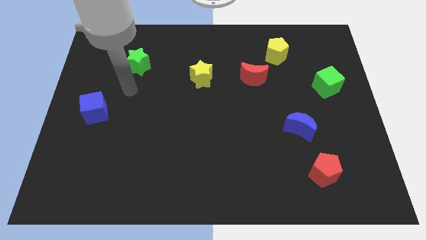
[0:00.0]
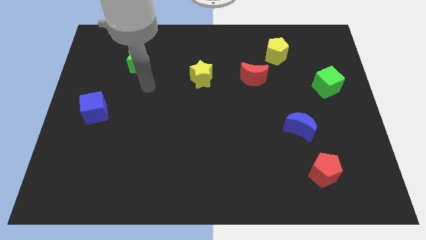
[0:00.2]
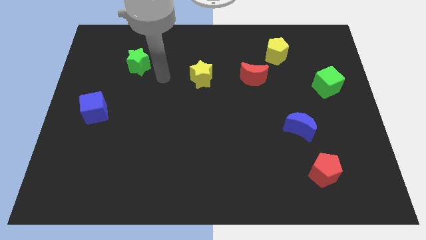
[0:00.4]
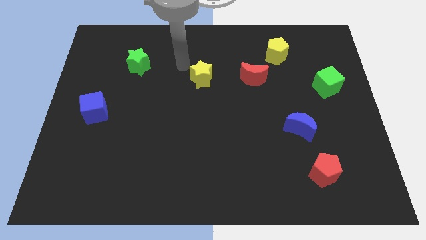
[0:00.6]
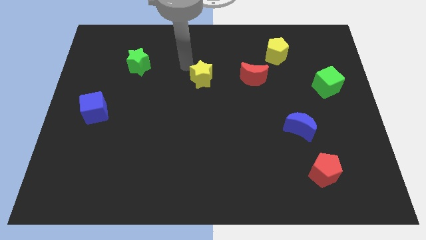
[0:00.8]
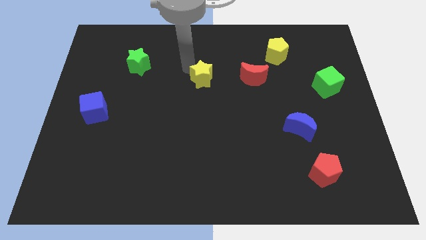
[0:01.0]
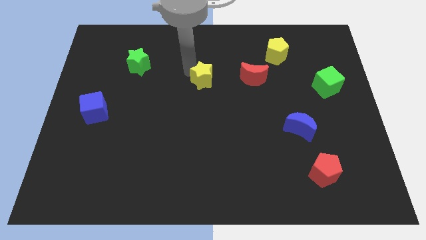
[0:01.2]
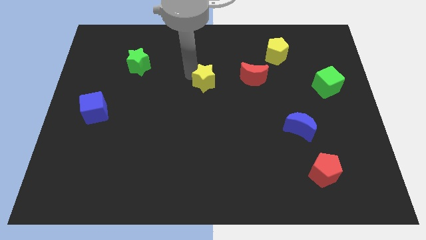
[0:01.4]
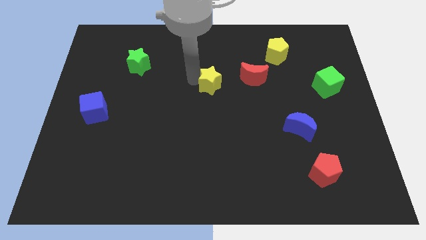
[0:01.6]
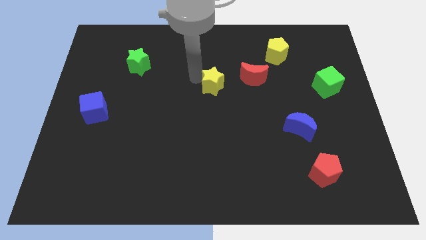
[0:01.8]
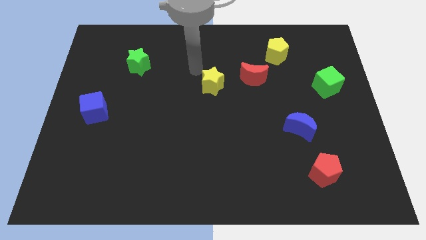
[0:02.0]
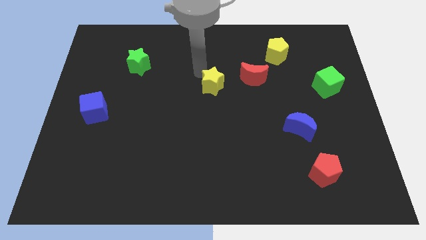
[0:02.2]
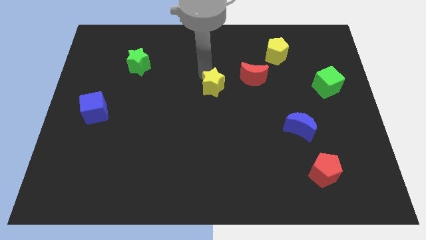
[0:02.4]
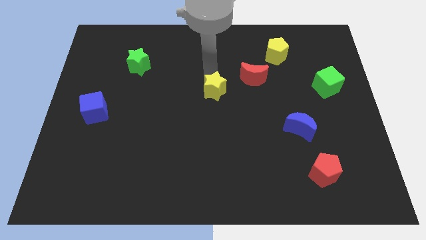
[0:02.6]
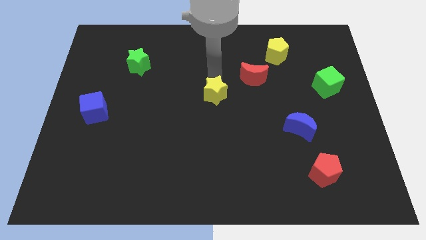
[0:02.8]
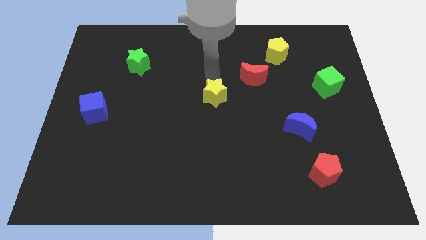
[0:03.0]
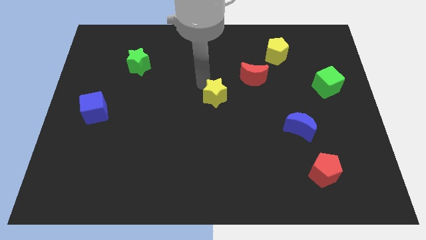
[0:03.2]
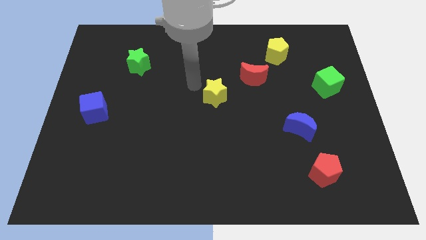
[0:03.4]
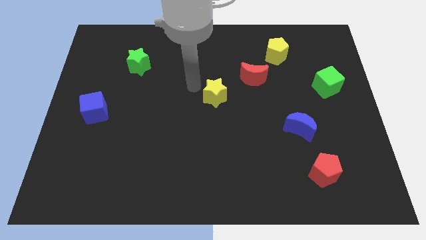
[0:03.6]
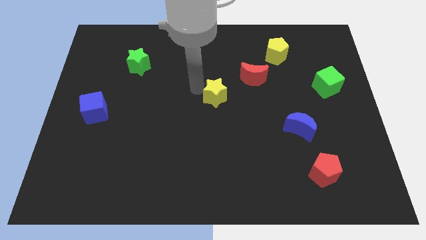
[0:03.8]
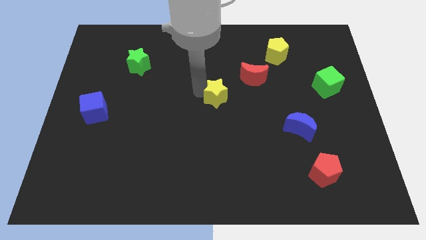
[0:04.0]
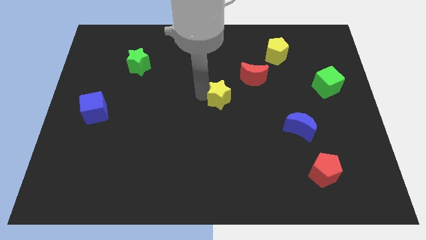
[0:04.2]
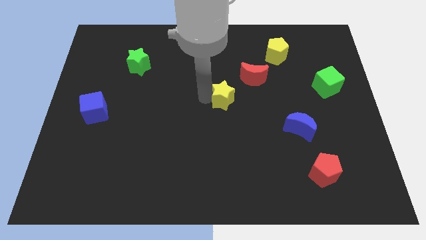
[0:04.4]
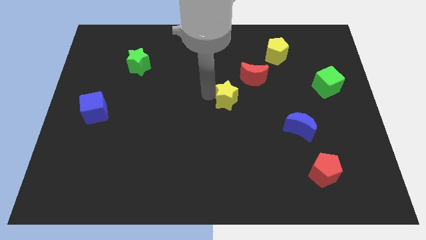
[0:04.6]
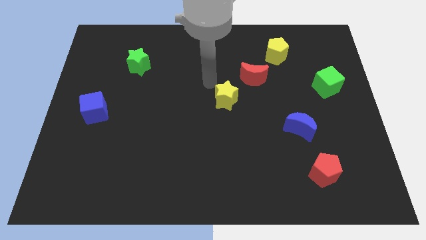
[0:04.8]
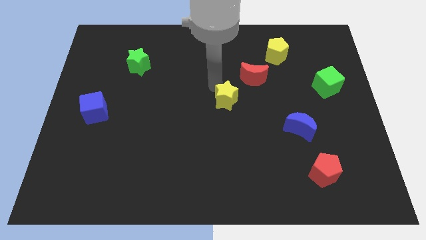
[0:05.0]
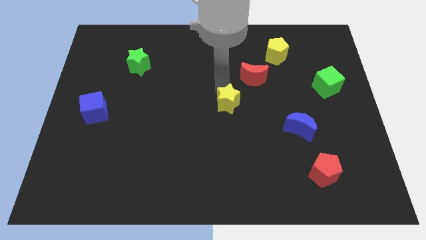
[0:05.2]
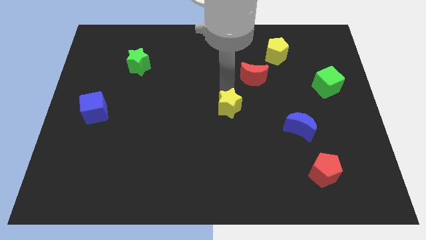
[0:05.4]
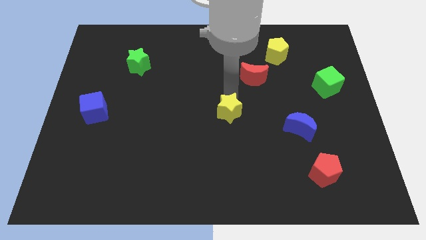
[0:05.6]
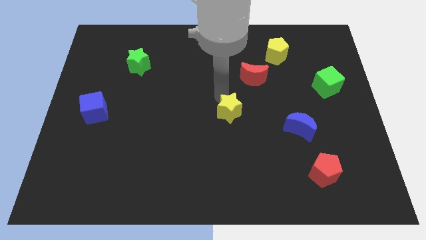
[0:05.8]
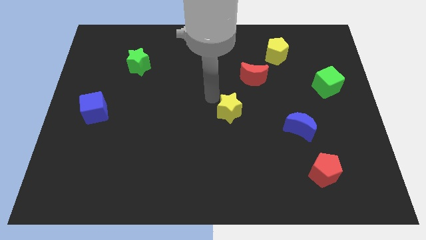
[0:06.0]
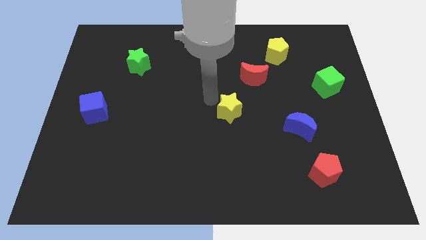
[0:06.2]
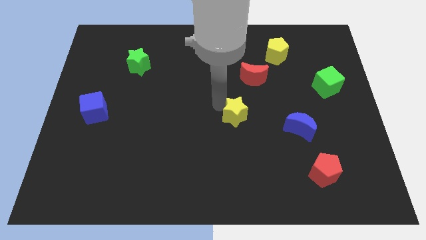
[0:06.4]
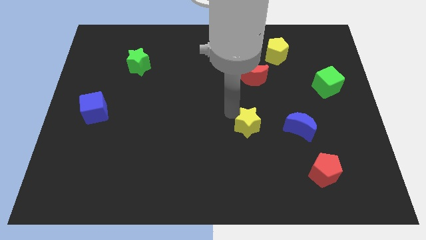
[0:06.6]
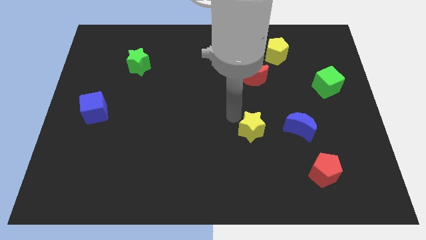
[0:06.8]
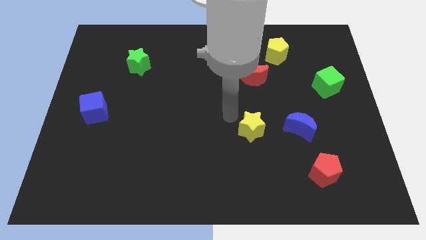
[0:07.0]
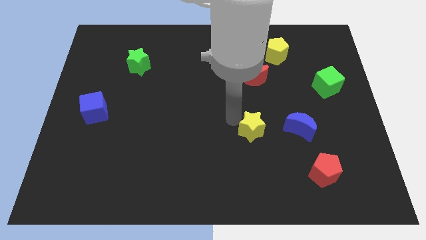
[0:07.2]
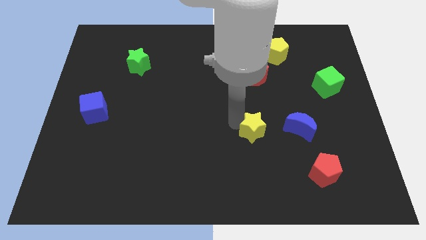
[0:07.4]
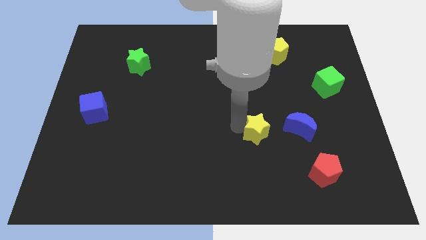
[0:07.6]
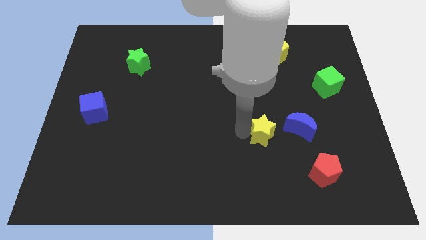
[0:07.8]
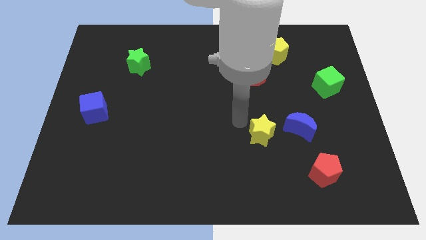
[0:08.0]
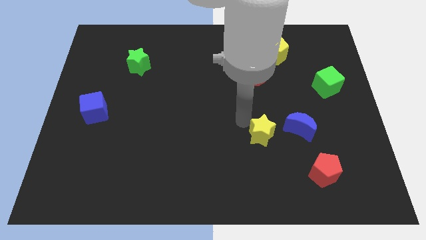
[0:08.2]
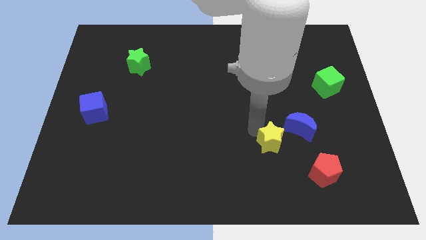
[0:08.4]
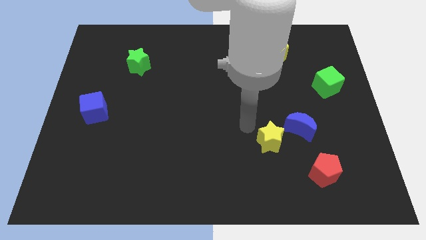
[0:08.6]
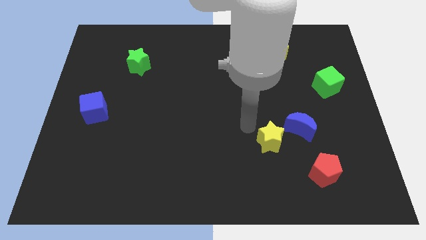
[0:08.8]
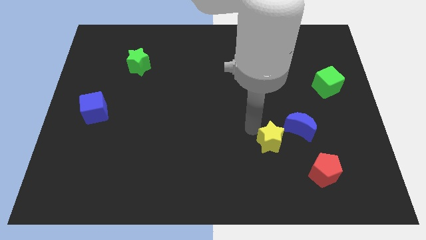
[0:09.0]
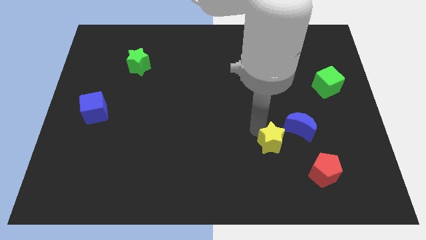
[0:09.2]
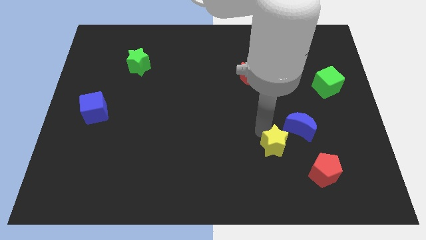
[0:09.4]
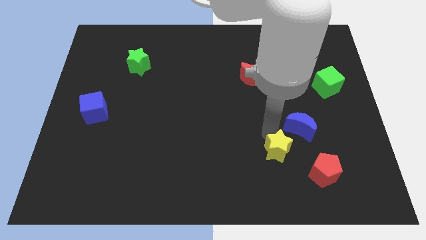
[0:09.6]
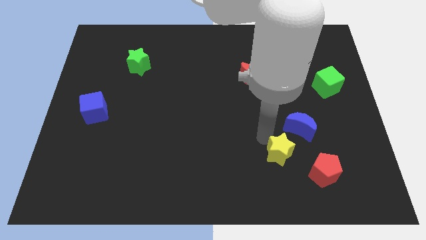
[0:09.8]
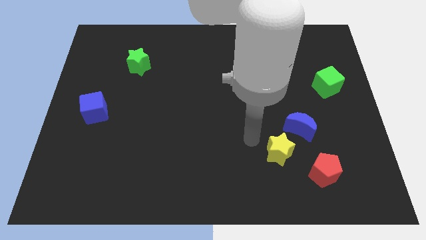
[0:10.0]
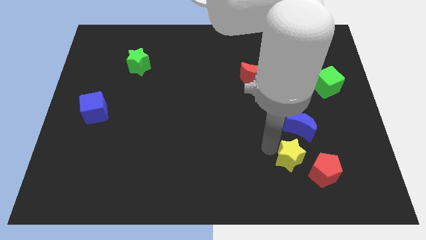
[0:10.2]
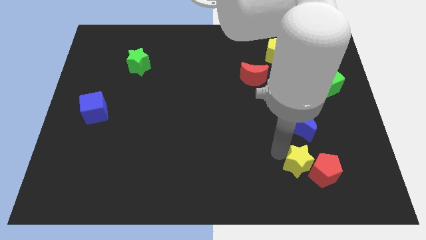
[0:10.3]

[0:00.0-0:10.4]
put the yellow star next to the red pentagon

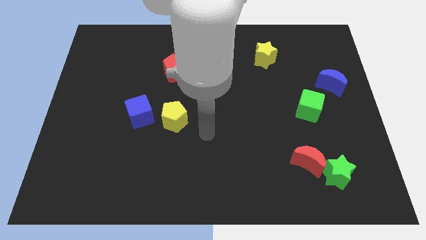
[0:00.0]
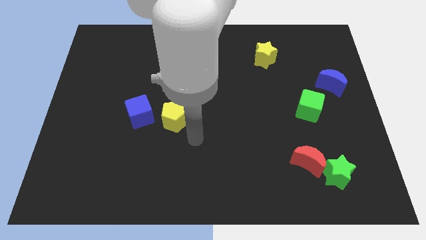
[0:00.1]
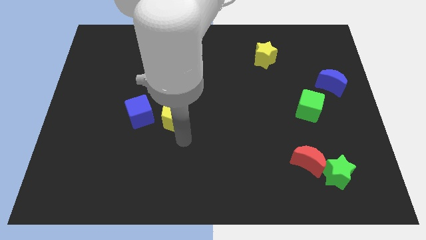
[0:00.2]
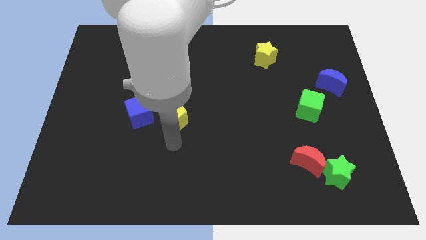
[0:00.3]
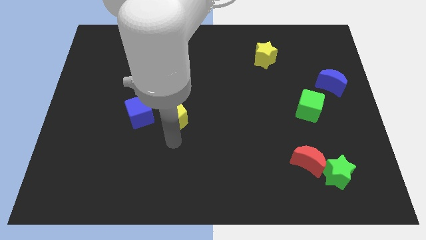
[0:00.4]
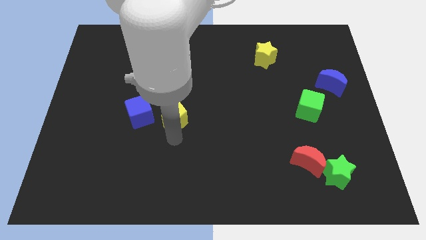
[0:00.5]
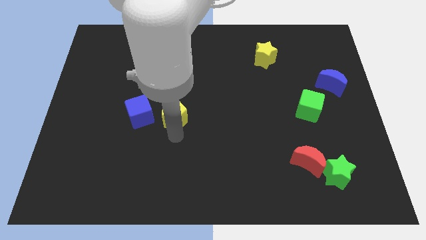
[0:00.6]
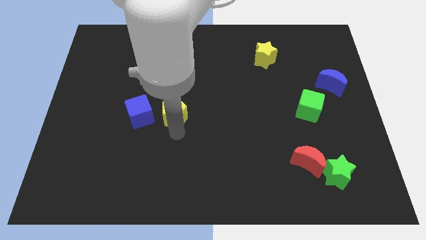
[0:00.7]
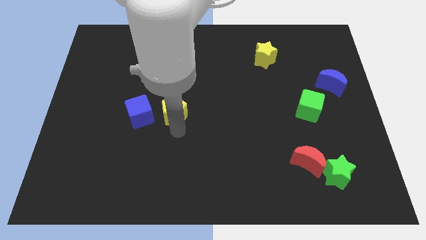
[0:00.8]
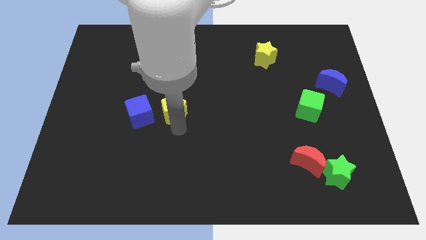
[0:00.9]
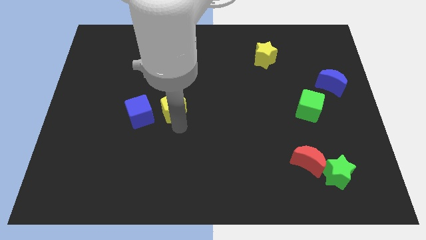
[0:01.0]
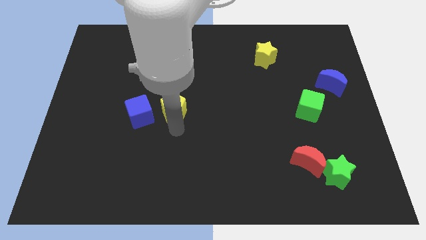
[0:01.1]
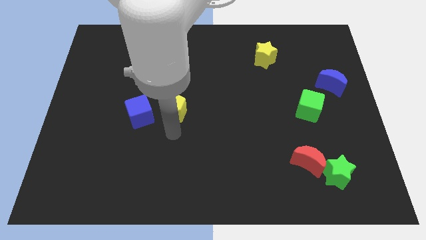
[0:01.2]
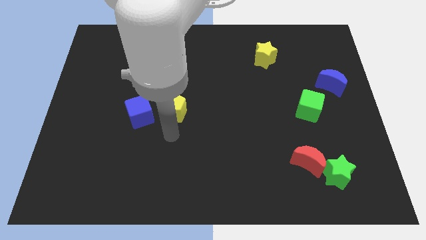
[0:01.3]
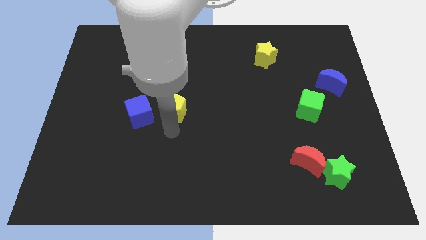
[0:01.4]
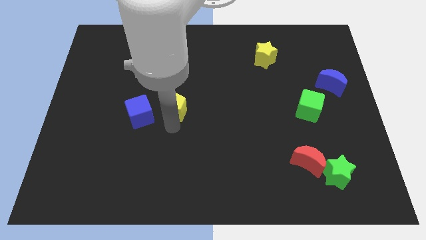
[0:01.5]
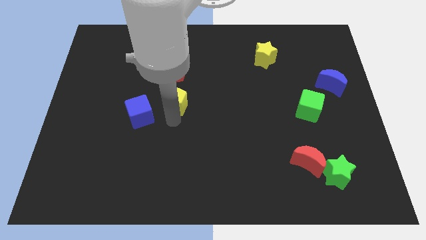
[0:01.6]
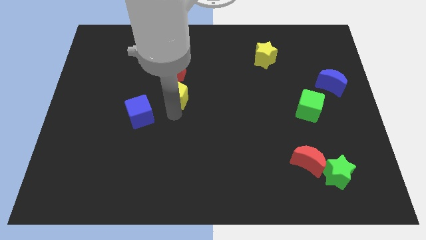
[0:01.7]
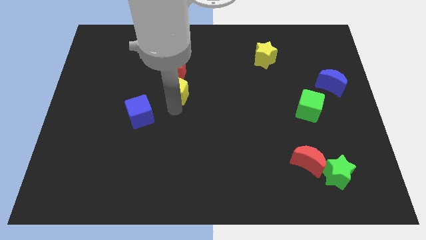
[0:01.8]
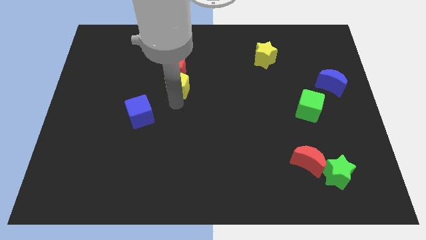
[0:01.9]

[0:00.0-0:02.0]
push the yellow pentagon to the red pentagon

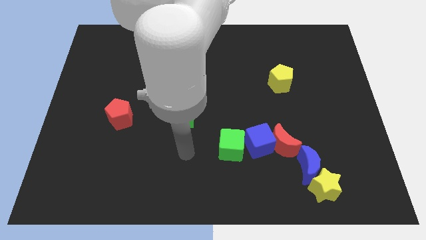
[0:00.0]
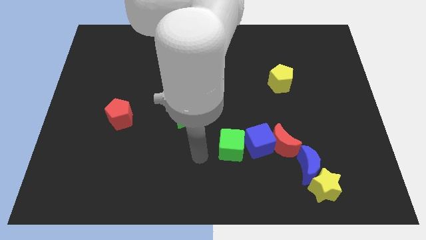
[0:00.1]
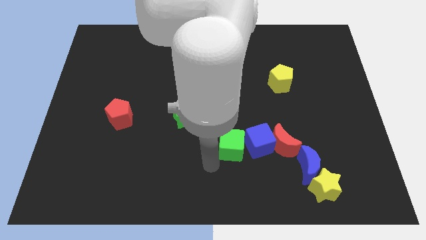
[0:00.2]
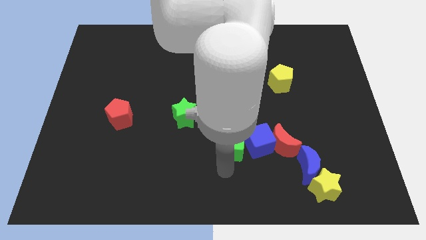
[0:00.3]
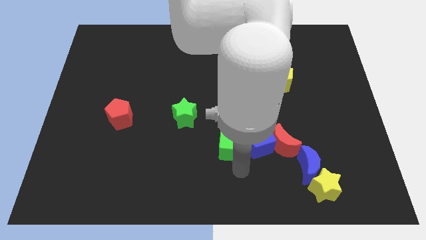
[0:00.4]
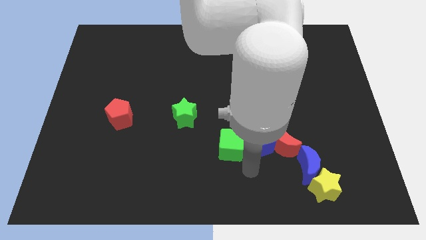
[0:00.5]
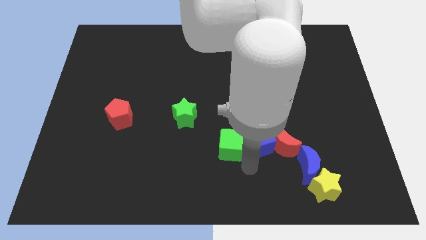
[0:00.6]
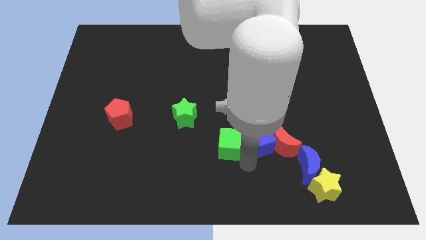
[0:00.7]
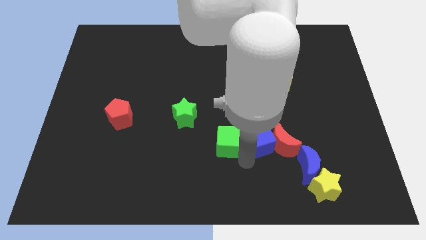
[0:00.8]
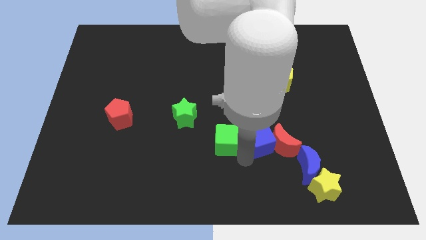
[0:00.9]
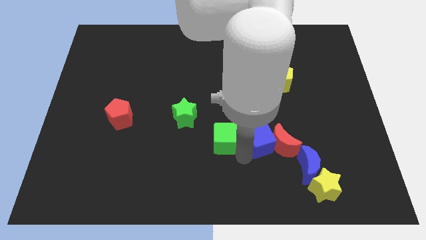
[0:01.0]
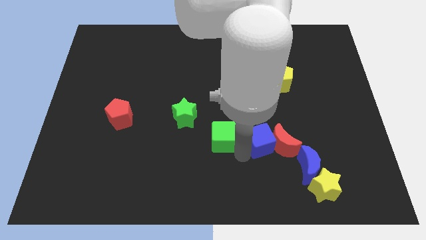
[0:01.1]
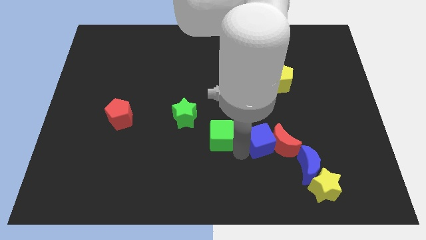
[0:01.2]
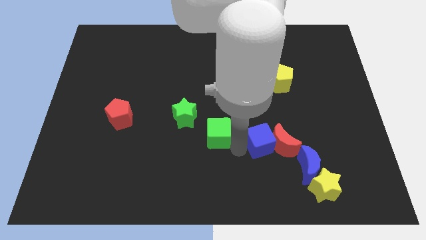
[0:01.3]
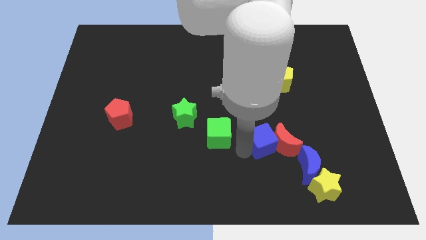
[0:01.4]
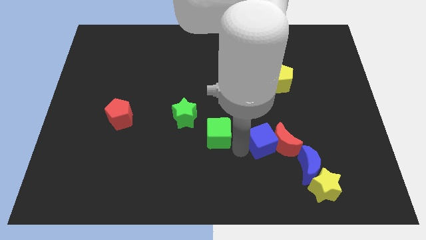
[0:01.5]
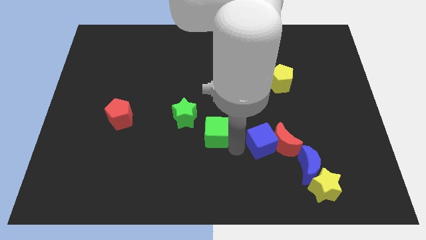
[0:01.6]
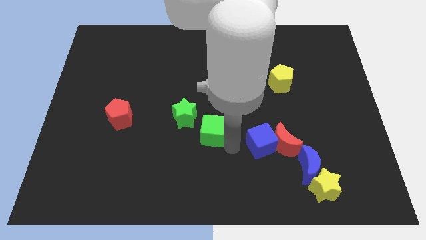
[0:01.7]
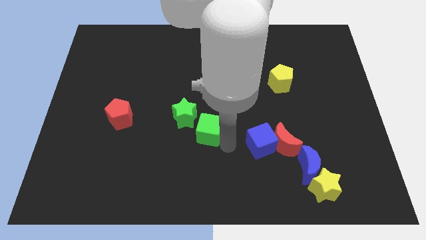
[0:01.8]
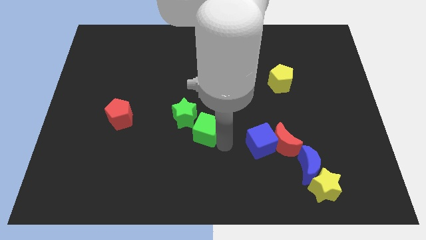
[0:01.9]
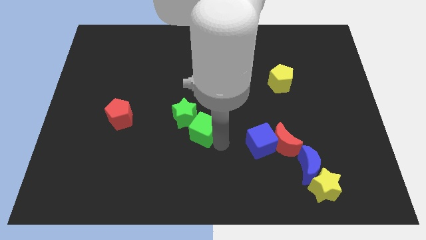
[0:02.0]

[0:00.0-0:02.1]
put the green cube to the green star
